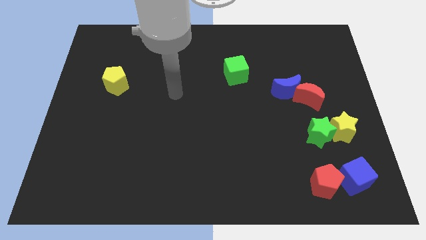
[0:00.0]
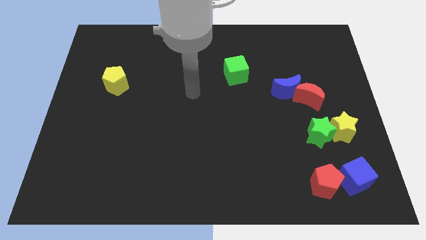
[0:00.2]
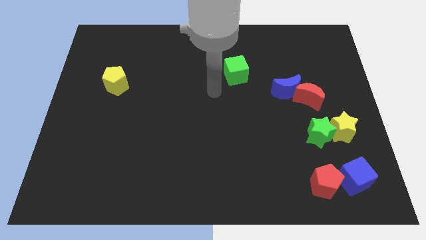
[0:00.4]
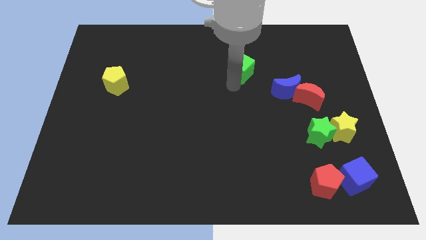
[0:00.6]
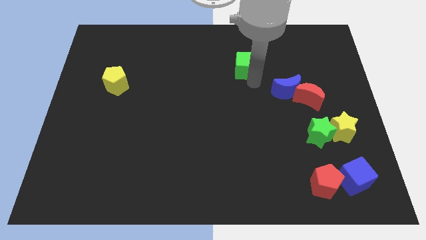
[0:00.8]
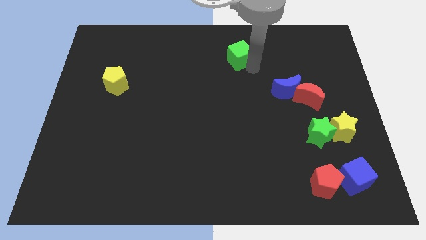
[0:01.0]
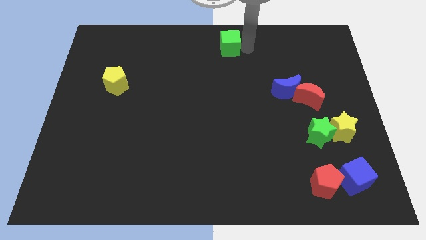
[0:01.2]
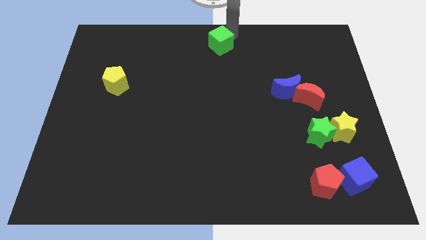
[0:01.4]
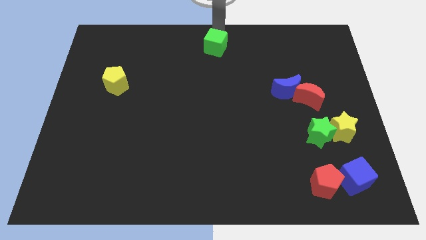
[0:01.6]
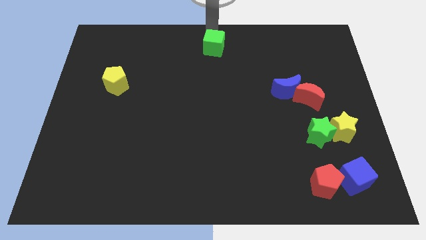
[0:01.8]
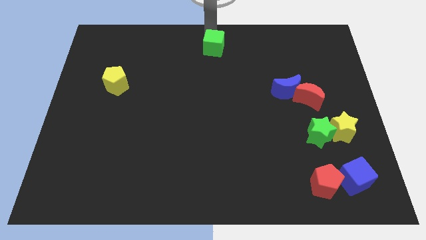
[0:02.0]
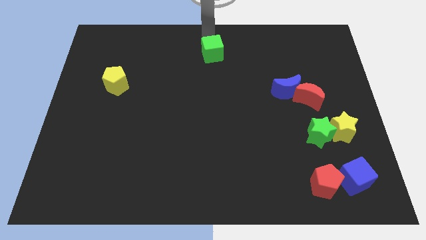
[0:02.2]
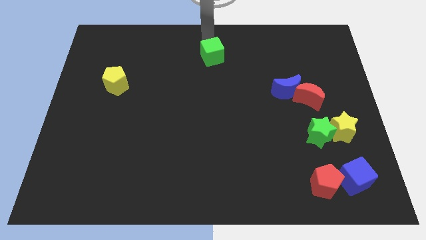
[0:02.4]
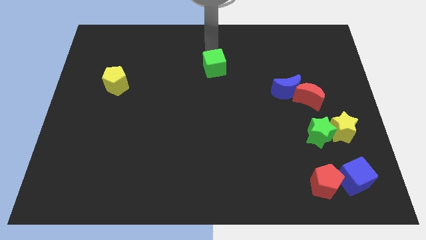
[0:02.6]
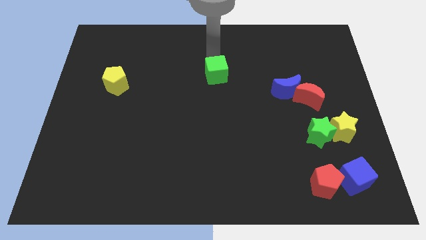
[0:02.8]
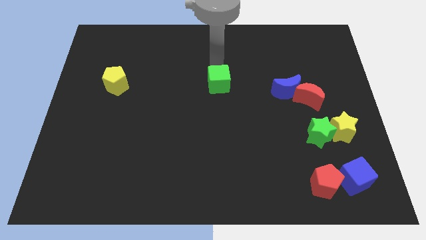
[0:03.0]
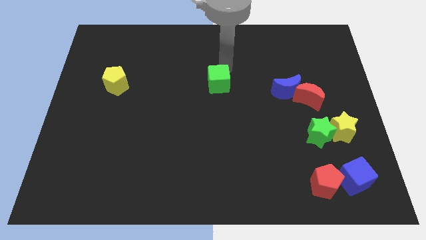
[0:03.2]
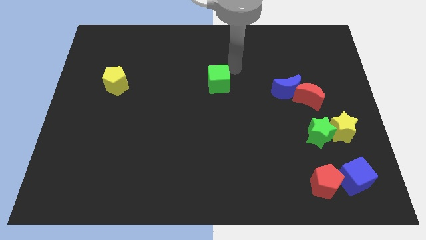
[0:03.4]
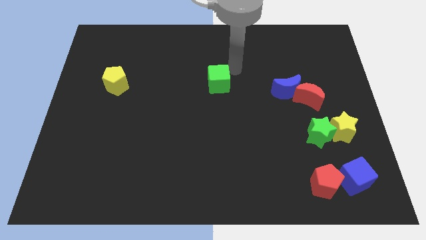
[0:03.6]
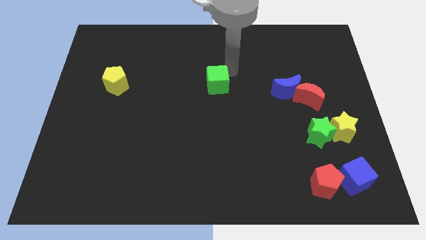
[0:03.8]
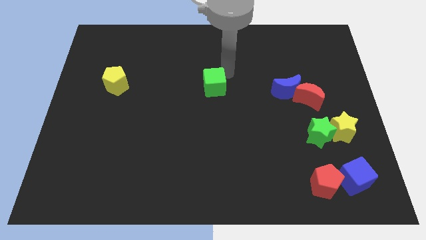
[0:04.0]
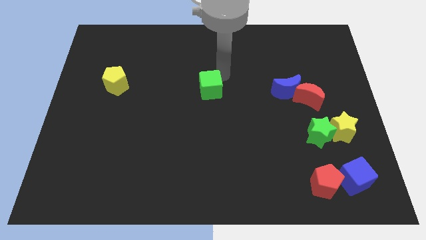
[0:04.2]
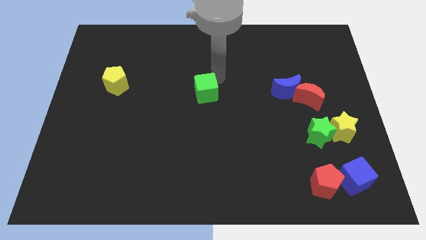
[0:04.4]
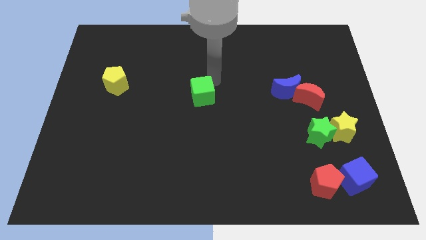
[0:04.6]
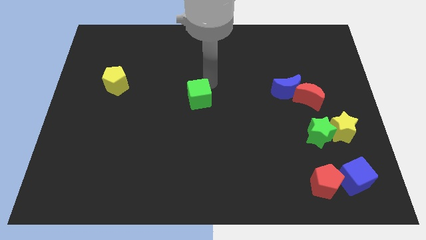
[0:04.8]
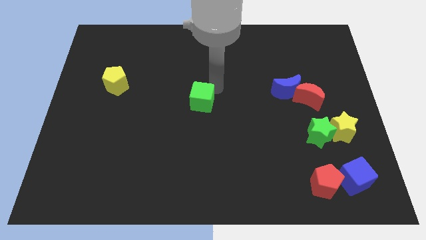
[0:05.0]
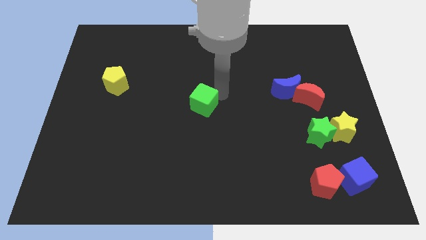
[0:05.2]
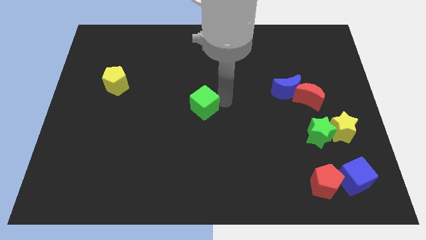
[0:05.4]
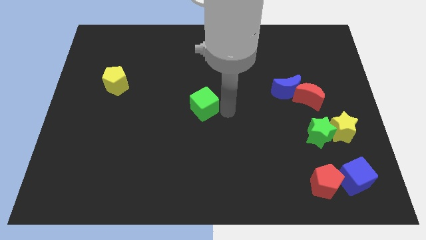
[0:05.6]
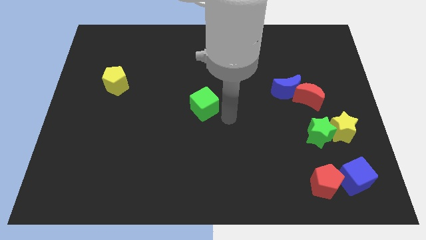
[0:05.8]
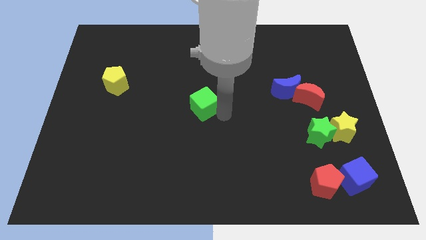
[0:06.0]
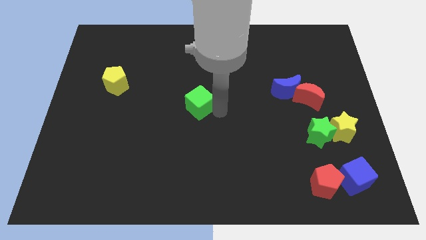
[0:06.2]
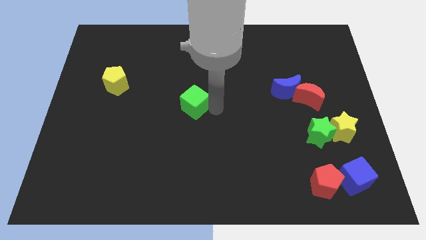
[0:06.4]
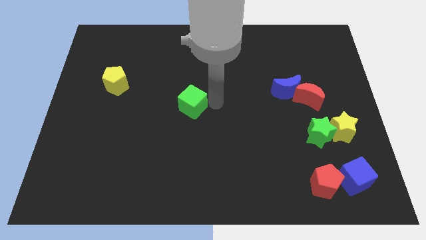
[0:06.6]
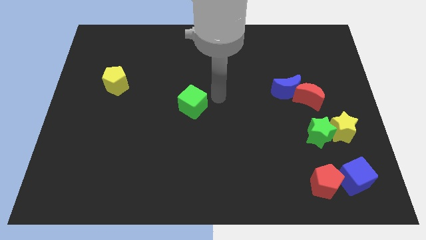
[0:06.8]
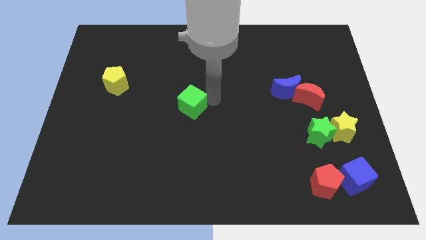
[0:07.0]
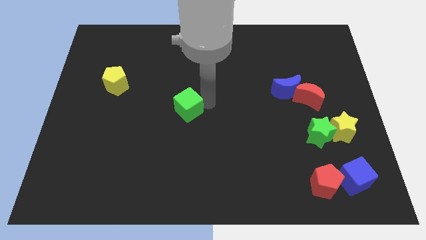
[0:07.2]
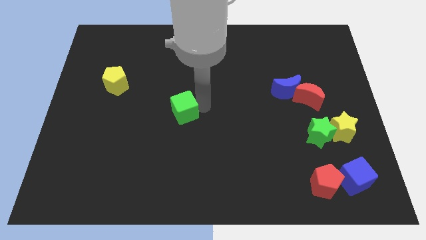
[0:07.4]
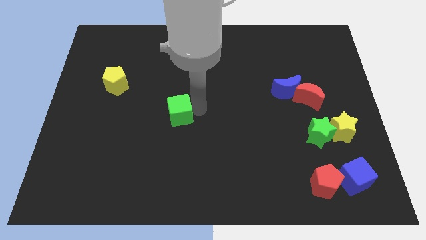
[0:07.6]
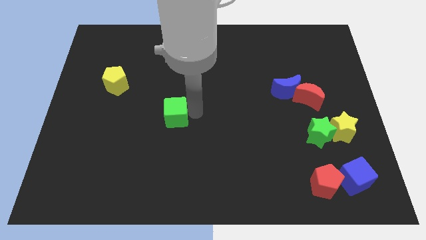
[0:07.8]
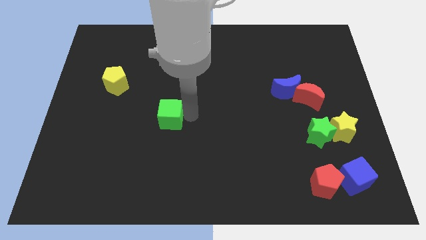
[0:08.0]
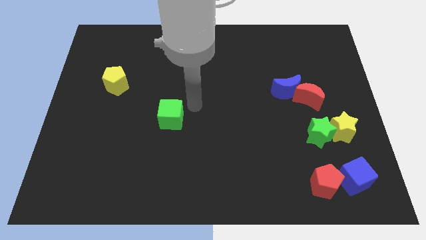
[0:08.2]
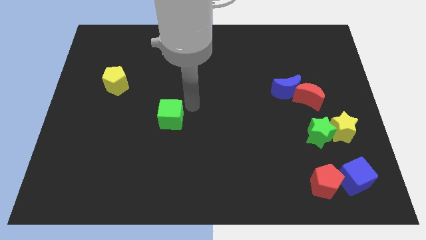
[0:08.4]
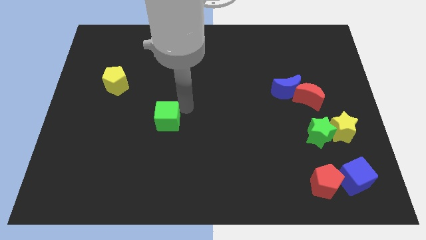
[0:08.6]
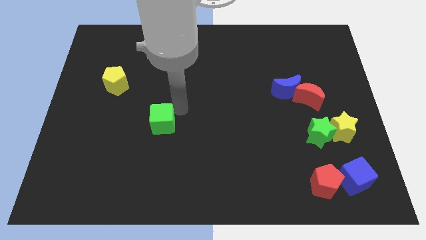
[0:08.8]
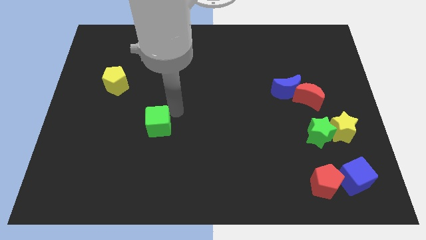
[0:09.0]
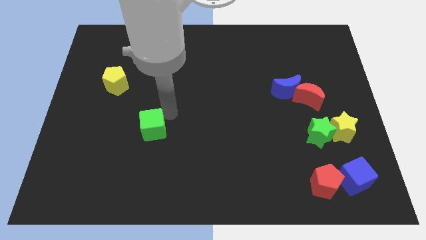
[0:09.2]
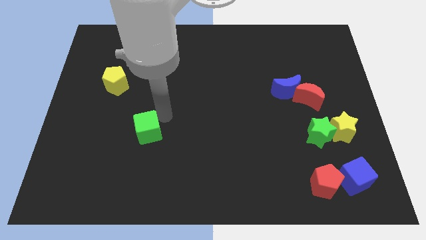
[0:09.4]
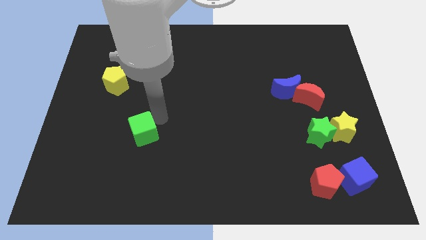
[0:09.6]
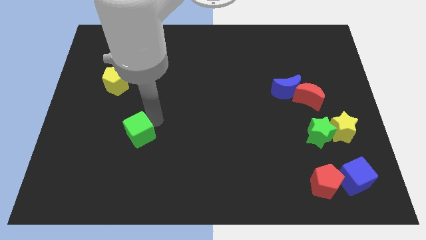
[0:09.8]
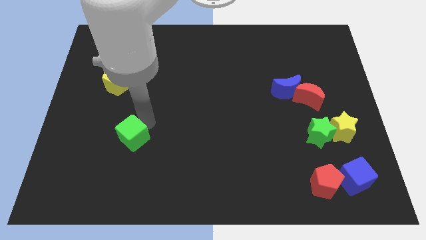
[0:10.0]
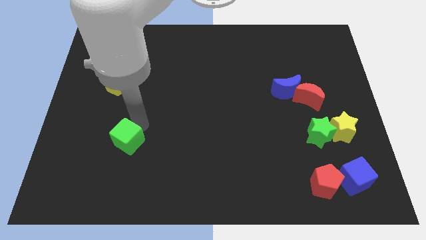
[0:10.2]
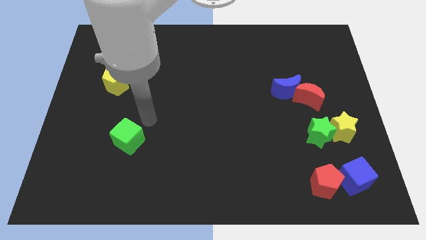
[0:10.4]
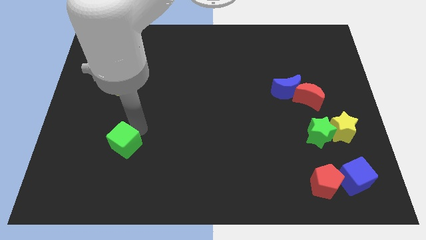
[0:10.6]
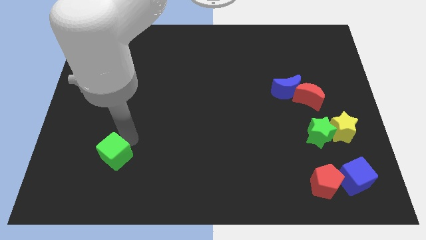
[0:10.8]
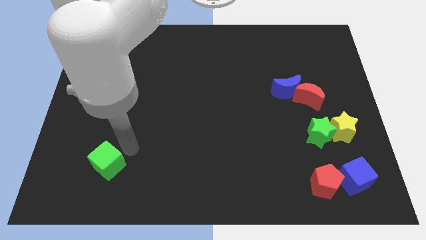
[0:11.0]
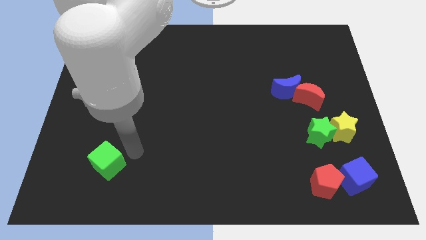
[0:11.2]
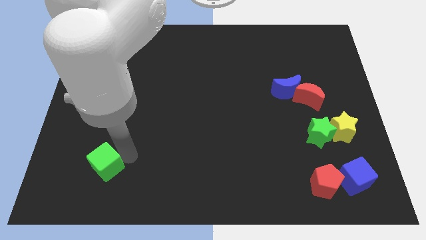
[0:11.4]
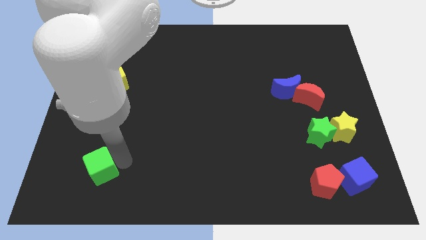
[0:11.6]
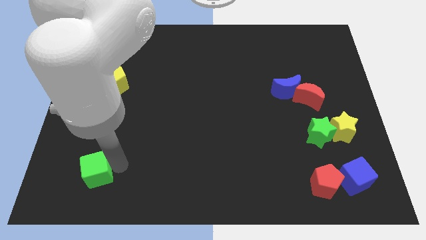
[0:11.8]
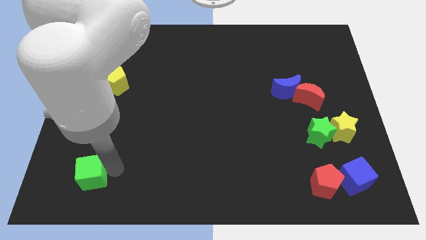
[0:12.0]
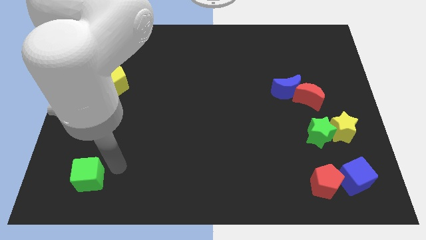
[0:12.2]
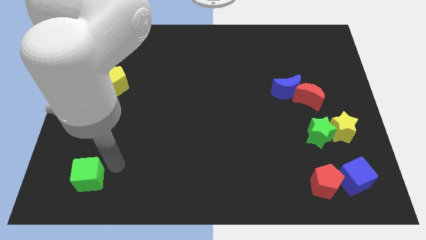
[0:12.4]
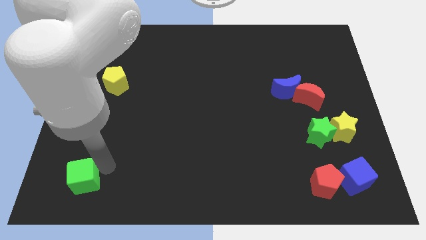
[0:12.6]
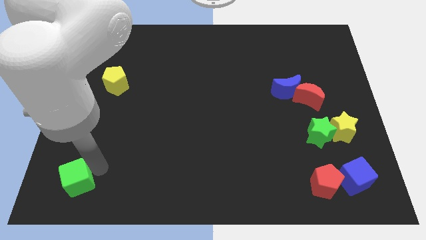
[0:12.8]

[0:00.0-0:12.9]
put the green cube to the bottom left of the board
